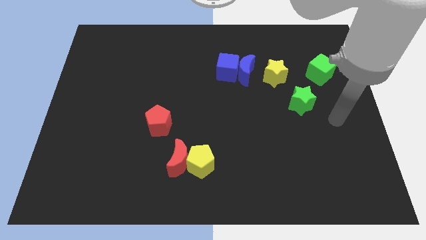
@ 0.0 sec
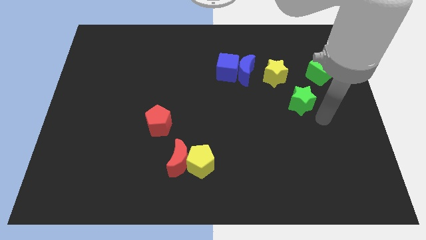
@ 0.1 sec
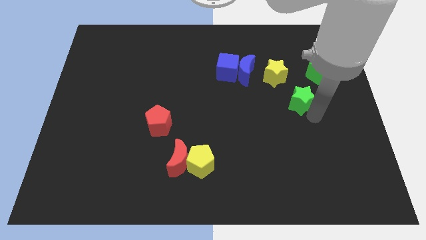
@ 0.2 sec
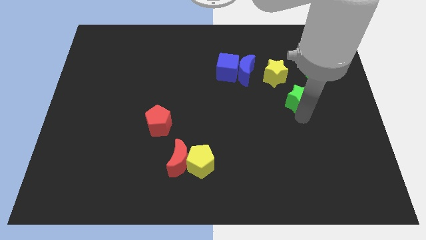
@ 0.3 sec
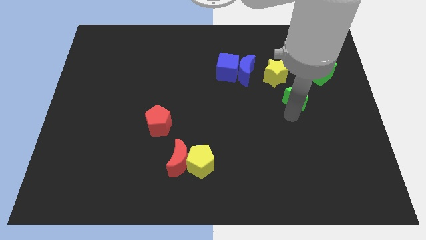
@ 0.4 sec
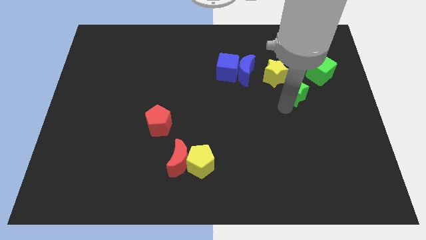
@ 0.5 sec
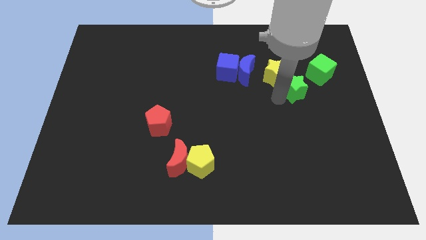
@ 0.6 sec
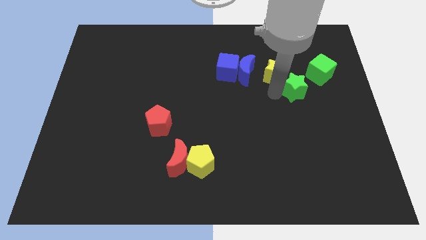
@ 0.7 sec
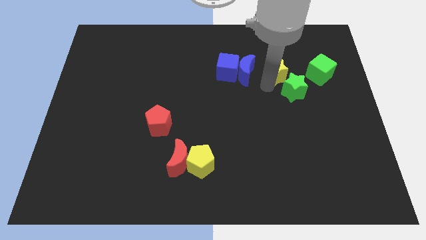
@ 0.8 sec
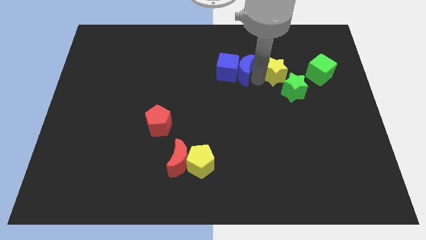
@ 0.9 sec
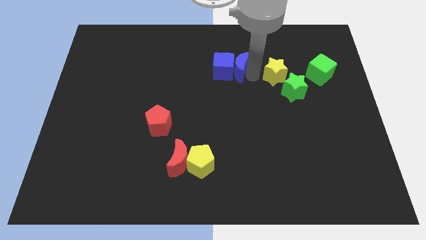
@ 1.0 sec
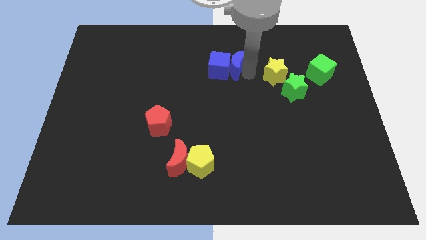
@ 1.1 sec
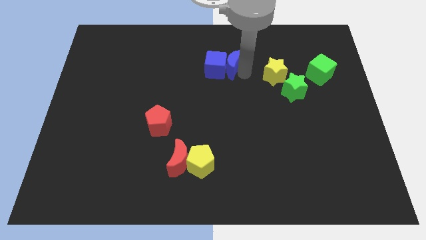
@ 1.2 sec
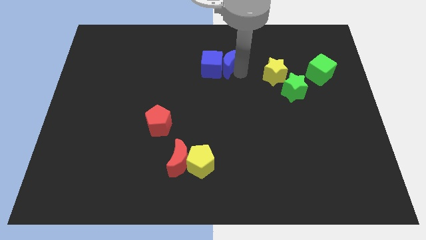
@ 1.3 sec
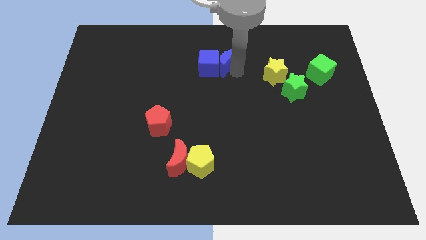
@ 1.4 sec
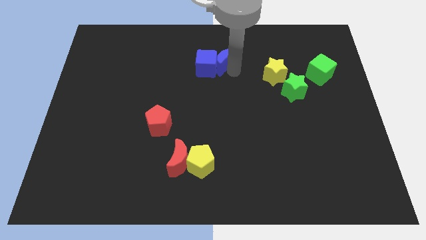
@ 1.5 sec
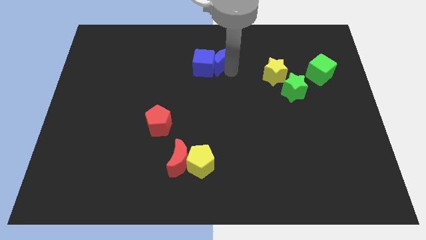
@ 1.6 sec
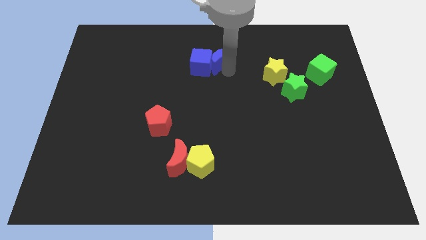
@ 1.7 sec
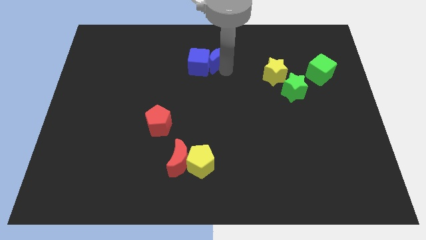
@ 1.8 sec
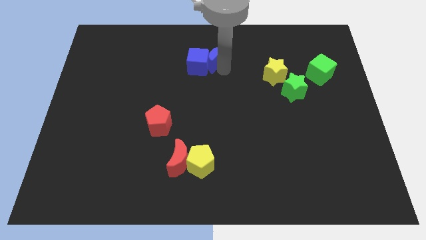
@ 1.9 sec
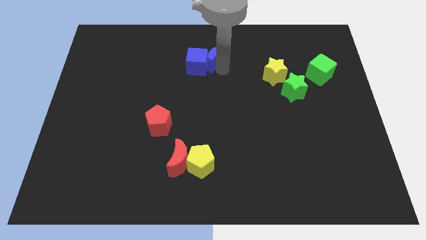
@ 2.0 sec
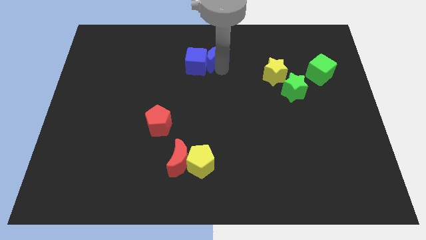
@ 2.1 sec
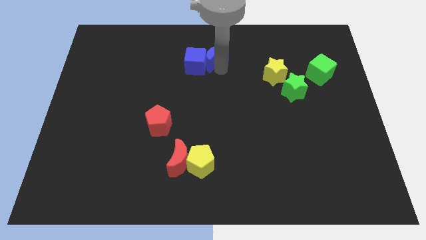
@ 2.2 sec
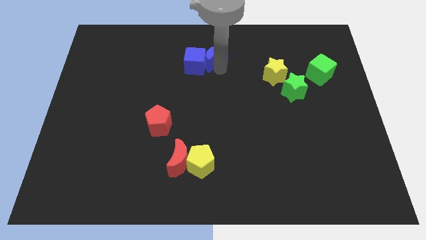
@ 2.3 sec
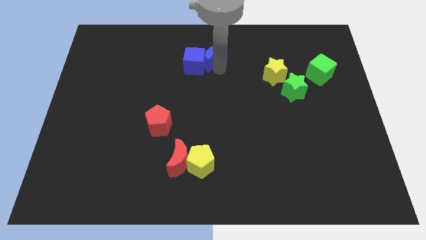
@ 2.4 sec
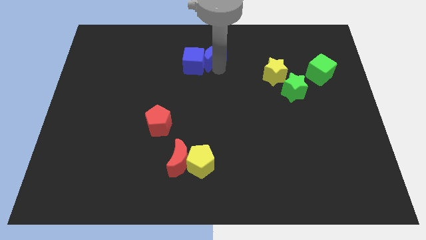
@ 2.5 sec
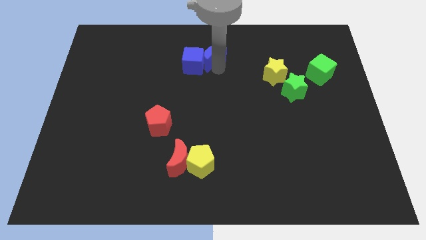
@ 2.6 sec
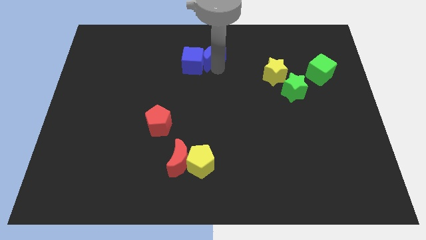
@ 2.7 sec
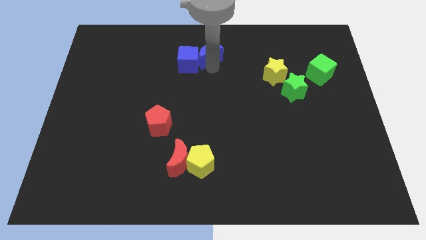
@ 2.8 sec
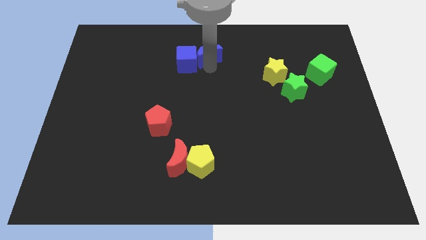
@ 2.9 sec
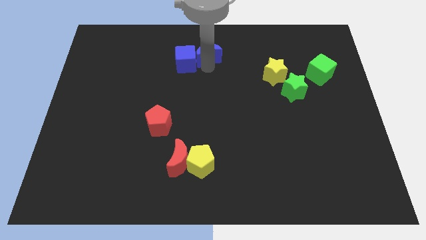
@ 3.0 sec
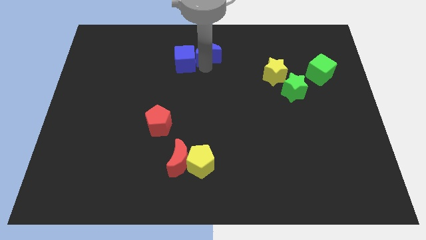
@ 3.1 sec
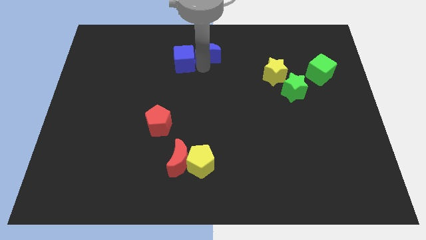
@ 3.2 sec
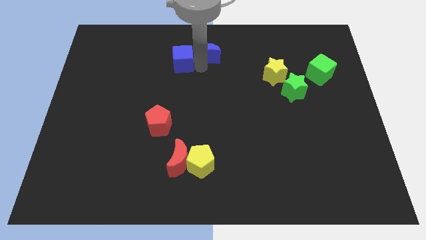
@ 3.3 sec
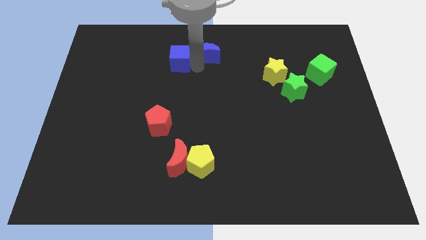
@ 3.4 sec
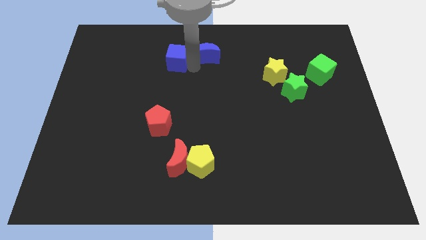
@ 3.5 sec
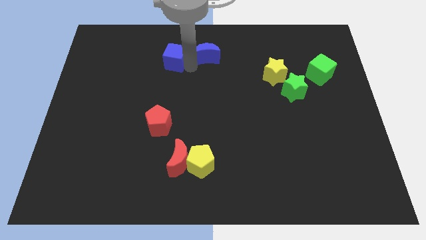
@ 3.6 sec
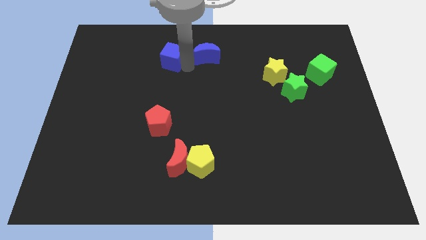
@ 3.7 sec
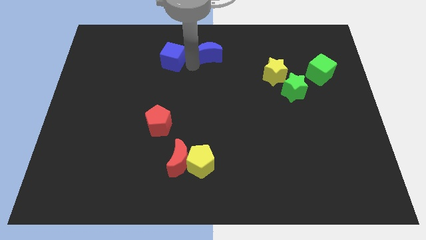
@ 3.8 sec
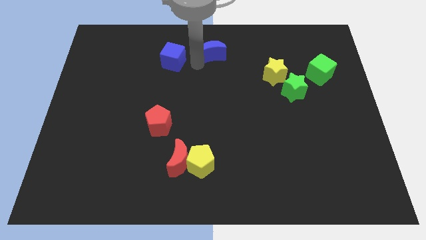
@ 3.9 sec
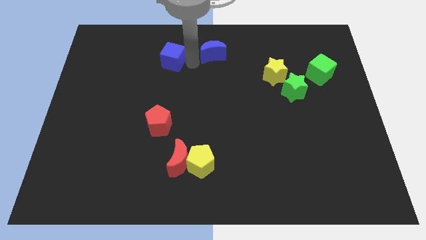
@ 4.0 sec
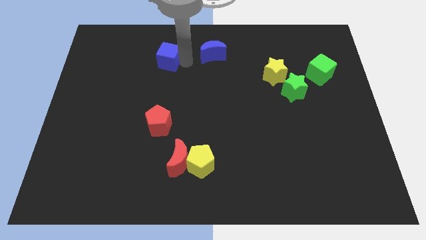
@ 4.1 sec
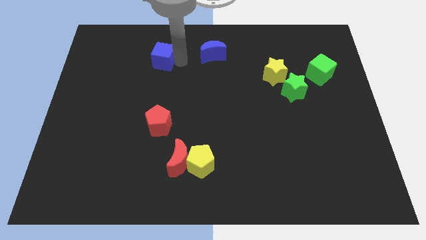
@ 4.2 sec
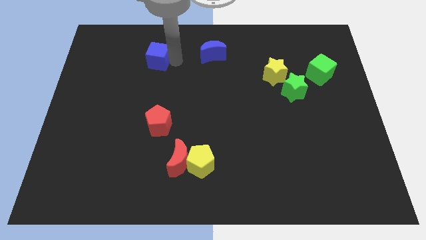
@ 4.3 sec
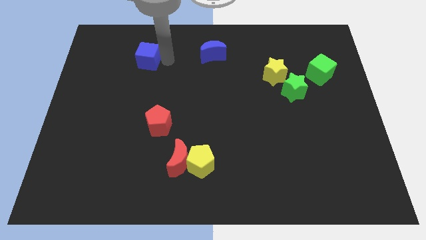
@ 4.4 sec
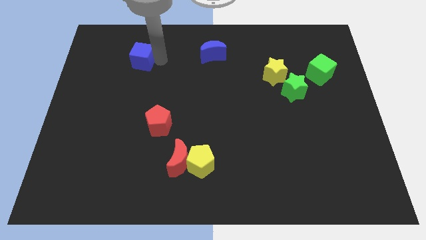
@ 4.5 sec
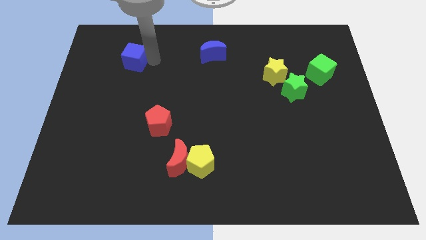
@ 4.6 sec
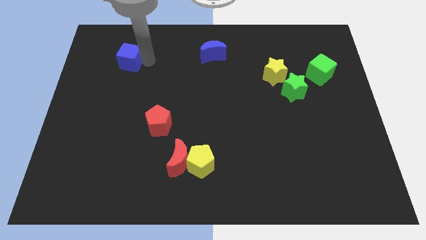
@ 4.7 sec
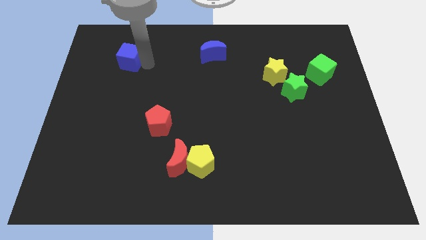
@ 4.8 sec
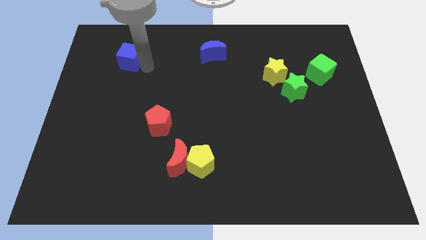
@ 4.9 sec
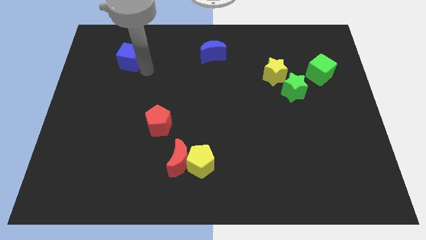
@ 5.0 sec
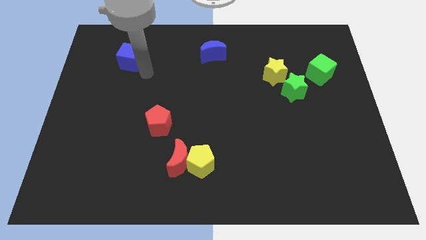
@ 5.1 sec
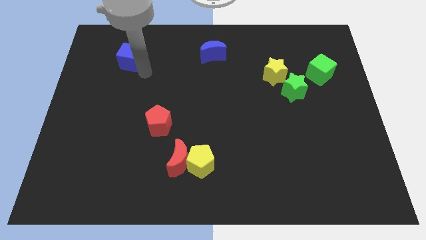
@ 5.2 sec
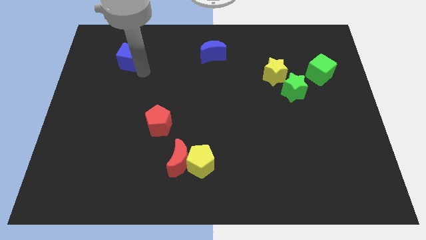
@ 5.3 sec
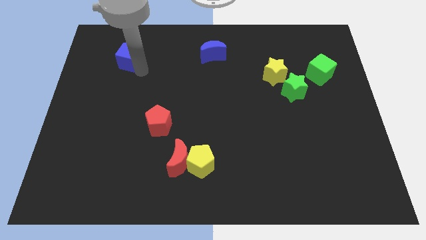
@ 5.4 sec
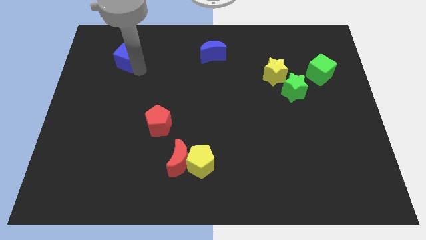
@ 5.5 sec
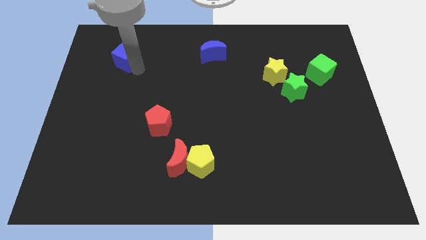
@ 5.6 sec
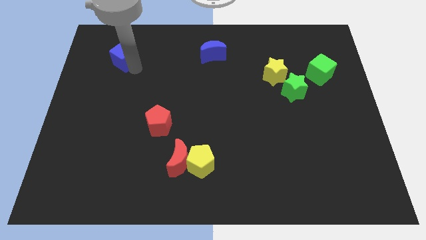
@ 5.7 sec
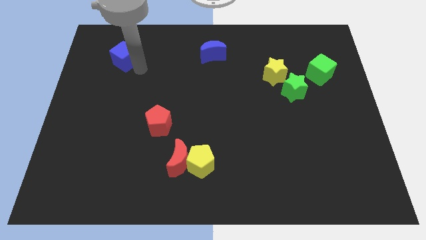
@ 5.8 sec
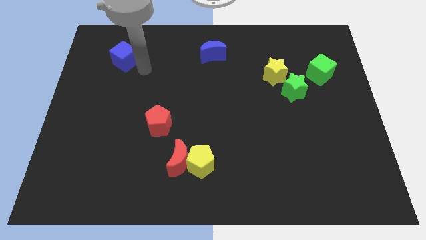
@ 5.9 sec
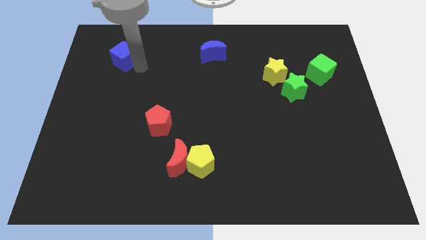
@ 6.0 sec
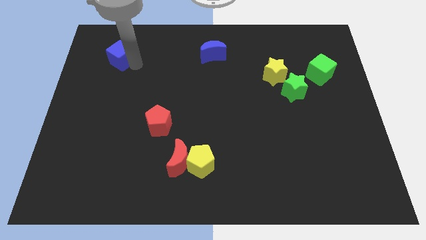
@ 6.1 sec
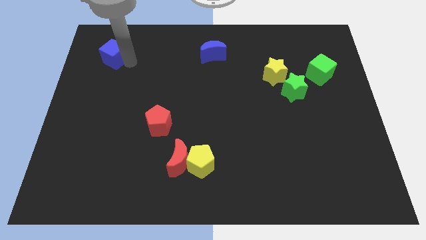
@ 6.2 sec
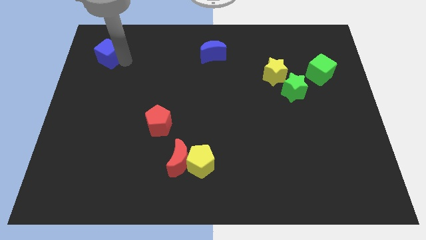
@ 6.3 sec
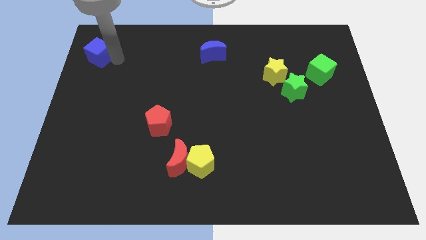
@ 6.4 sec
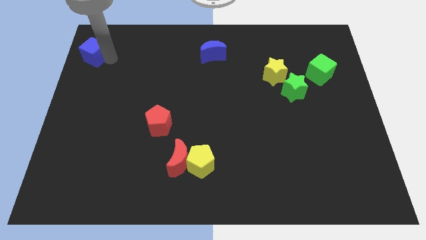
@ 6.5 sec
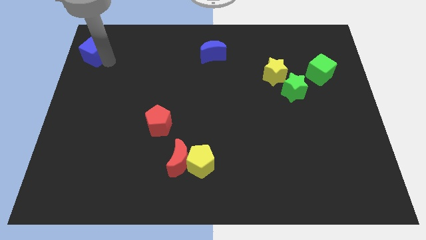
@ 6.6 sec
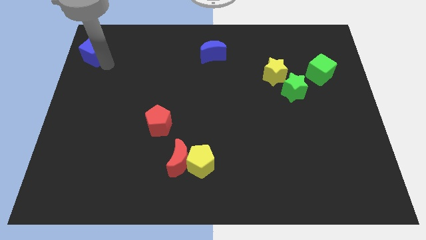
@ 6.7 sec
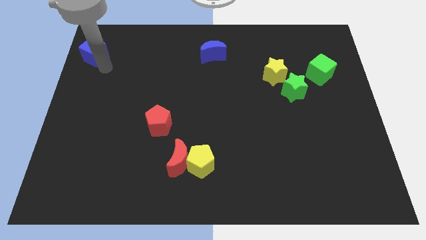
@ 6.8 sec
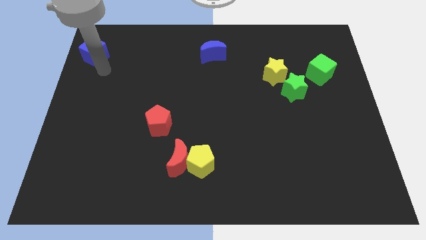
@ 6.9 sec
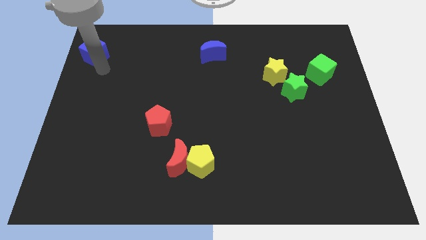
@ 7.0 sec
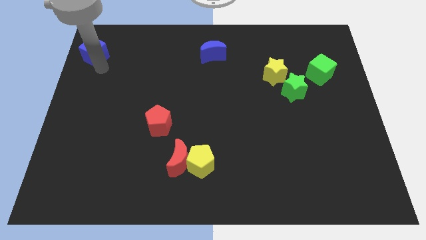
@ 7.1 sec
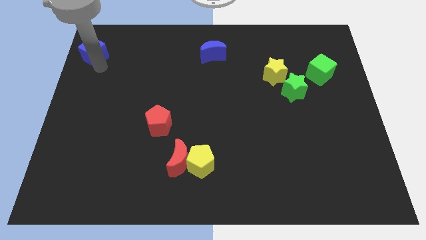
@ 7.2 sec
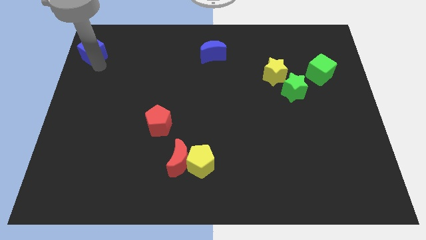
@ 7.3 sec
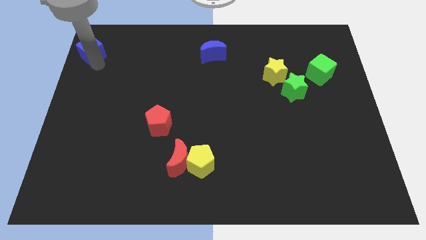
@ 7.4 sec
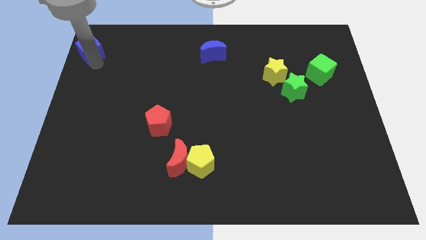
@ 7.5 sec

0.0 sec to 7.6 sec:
move the blue cube to the top left corner
